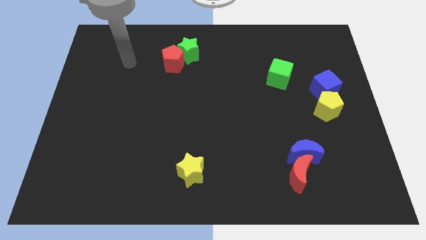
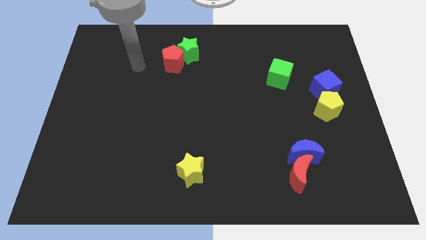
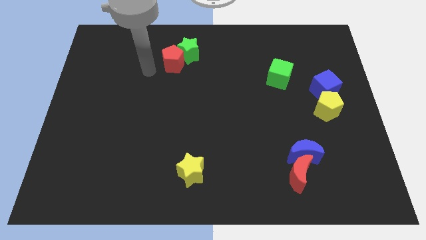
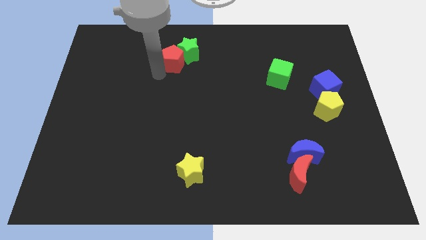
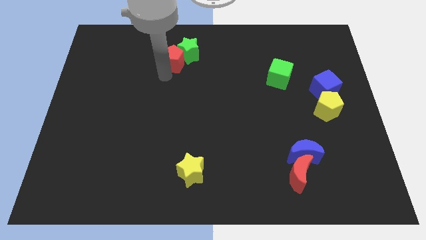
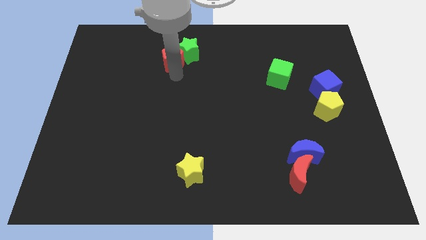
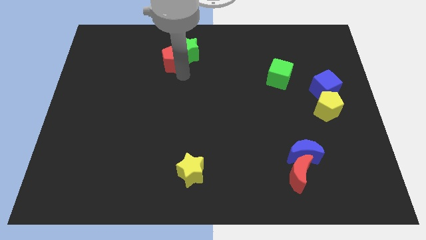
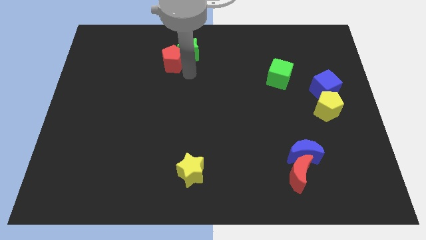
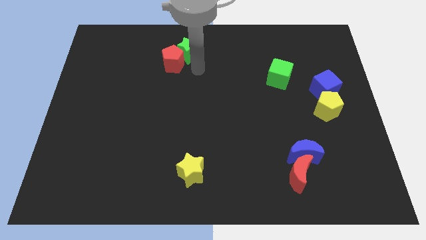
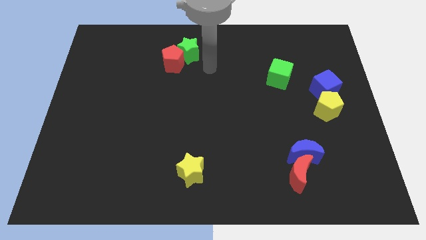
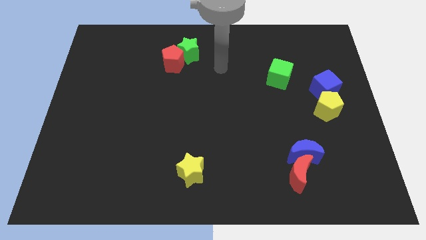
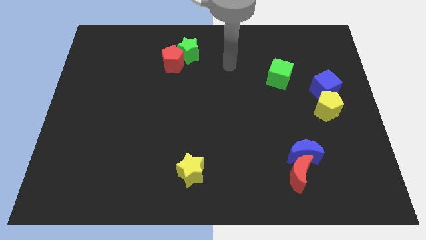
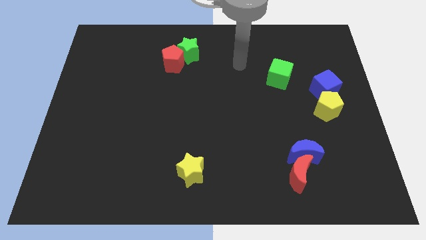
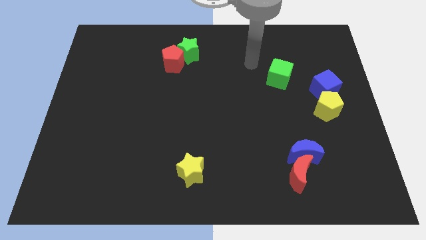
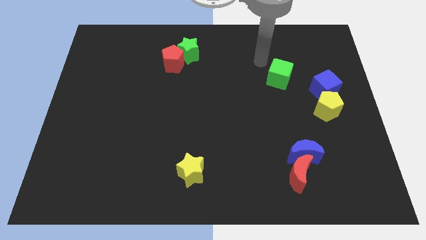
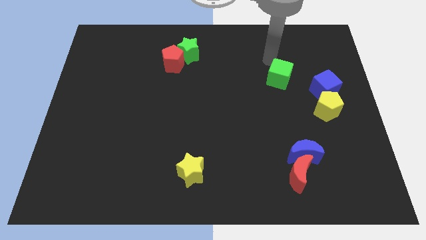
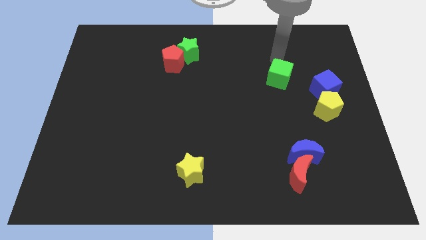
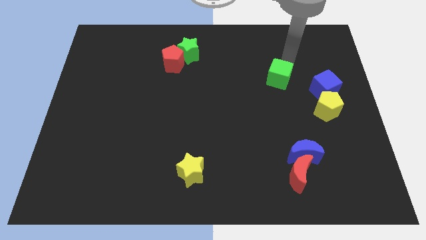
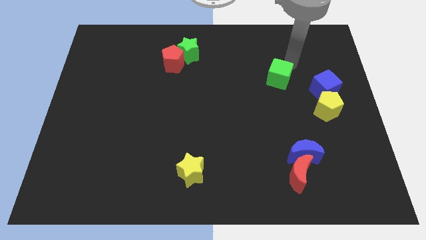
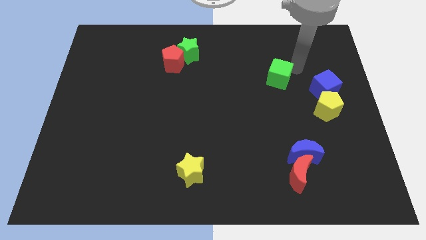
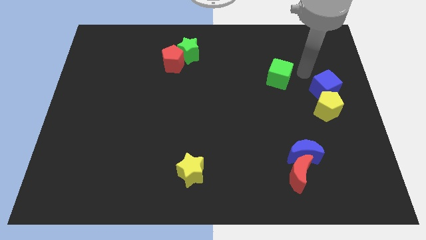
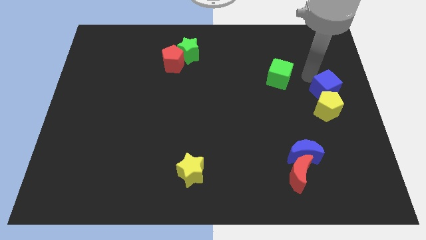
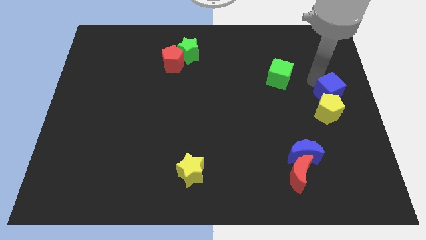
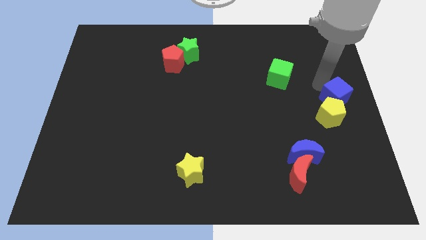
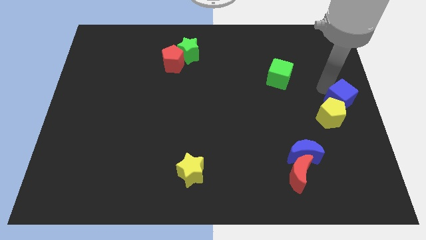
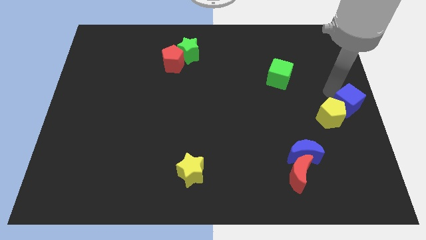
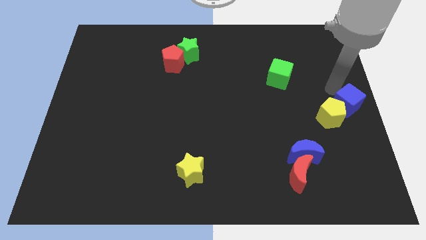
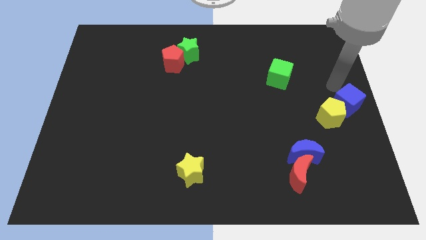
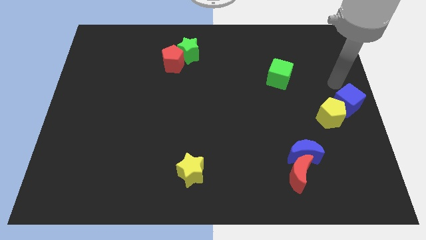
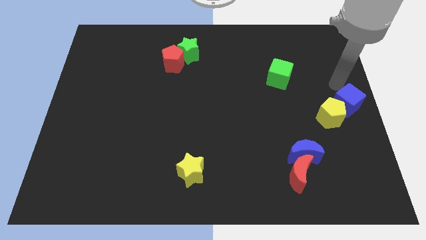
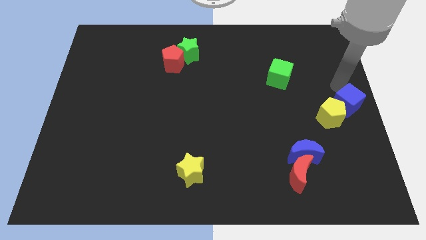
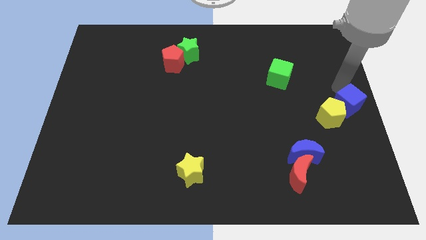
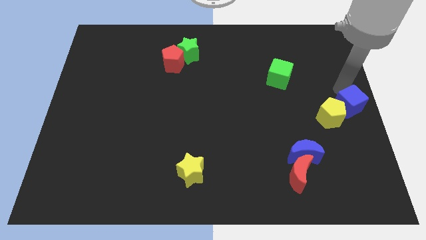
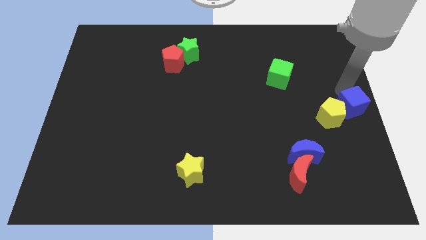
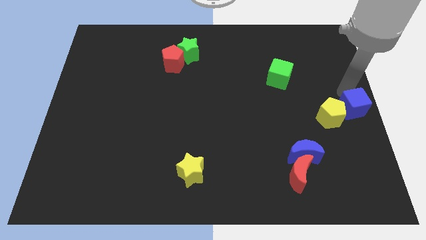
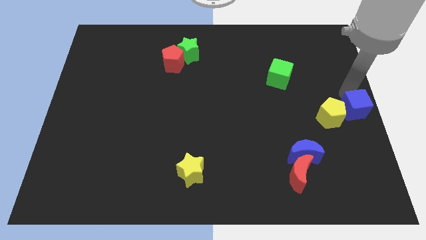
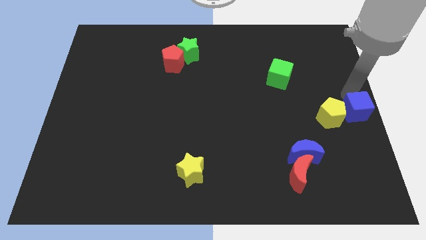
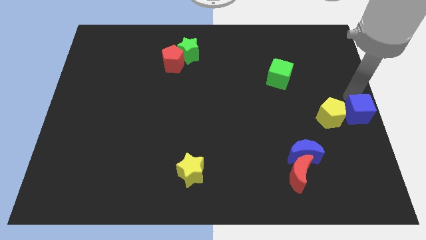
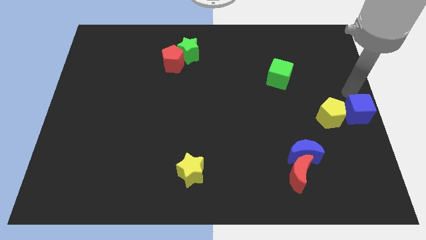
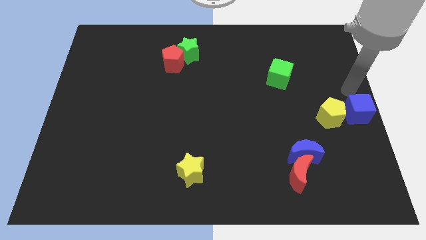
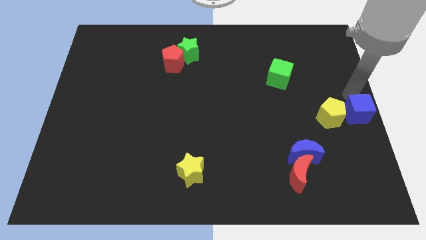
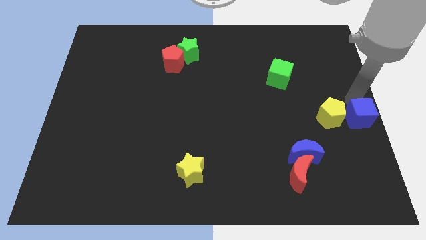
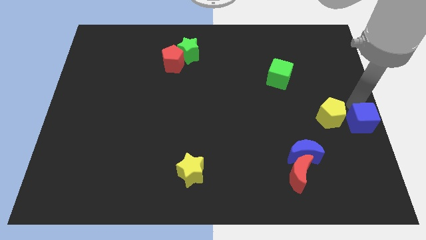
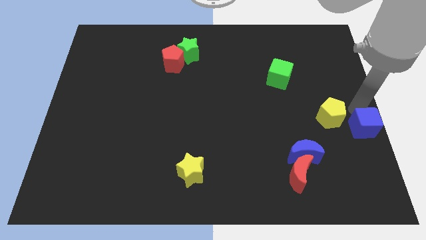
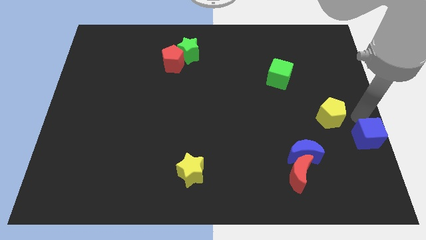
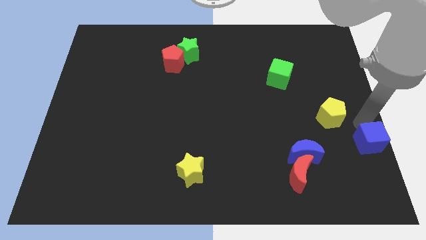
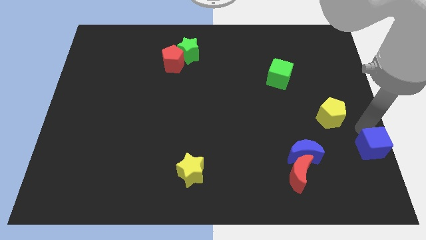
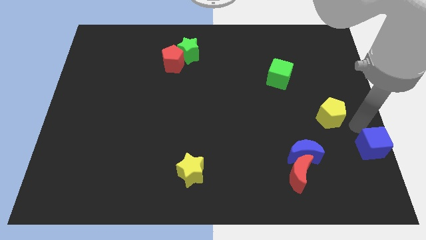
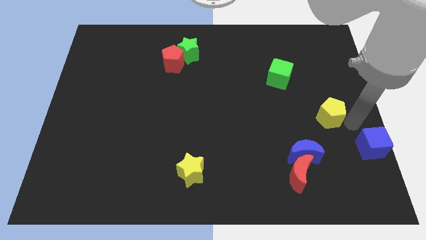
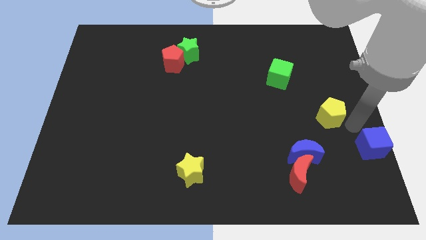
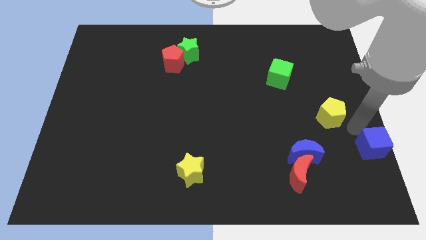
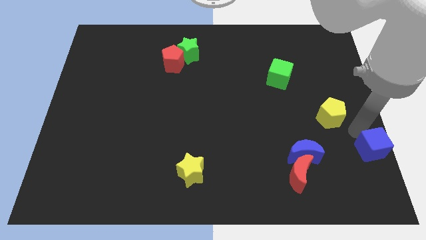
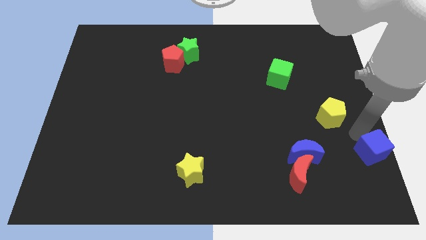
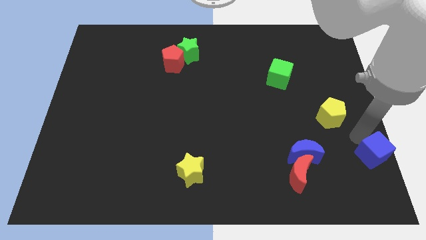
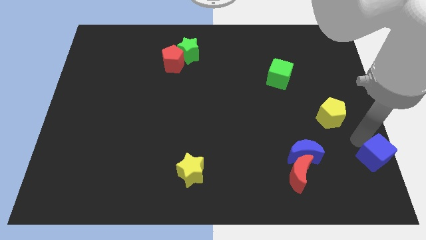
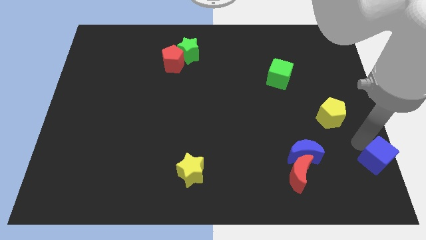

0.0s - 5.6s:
put the blue cube to the bottom right

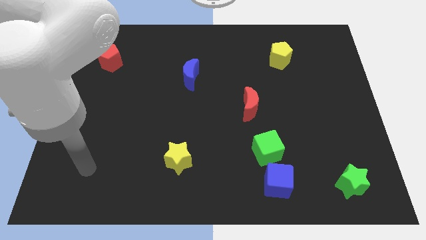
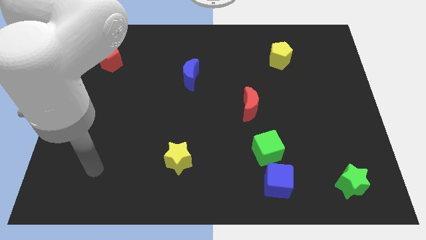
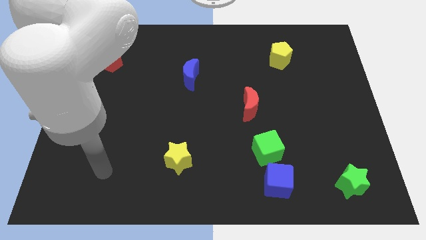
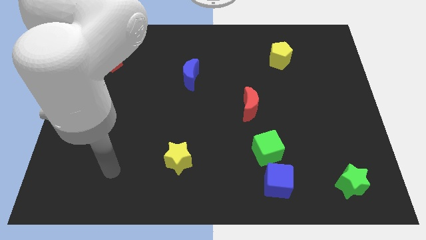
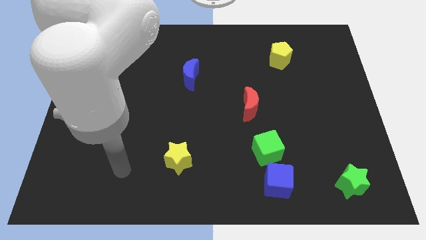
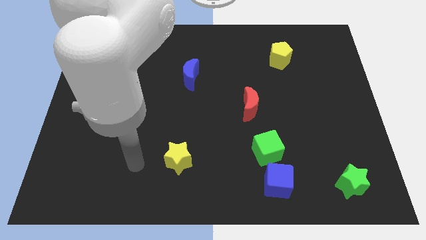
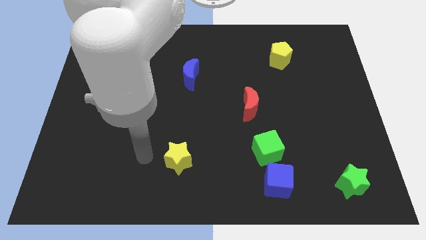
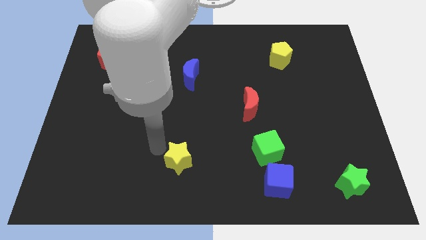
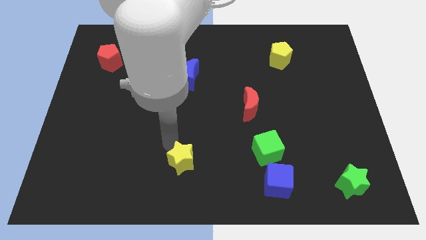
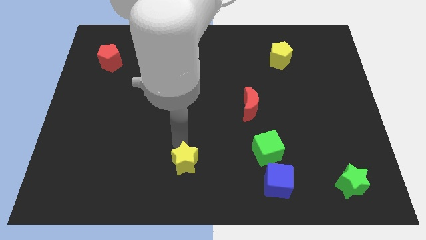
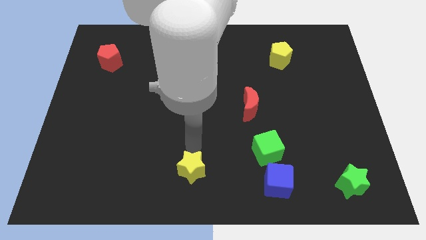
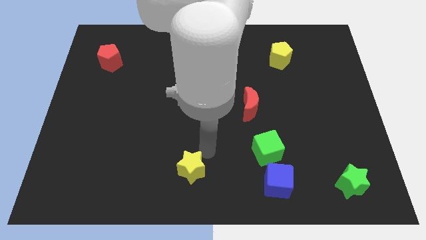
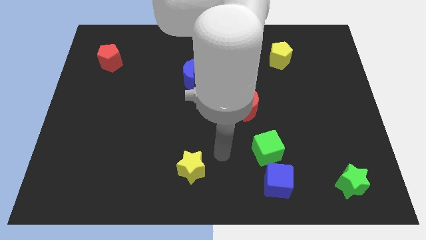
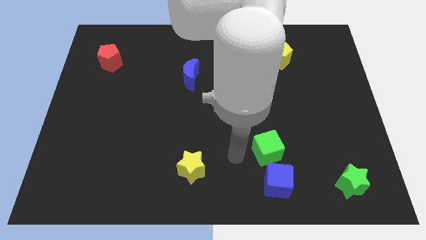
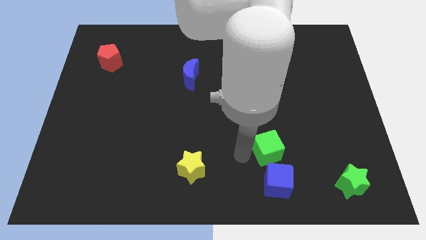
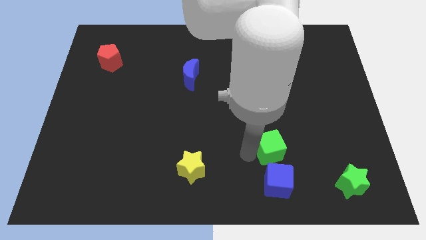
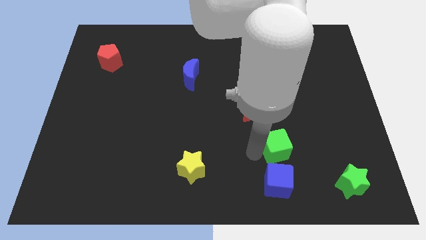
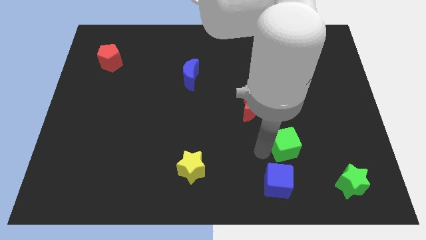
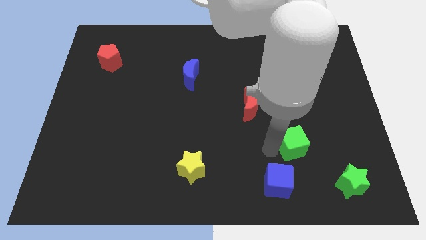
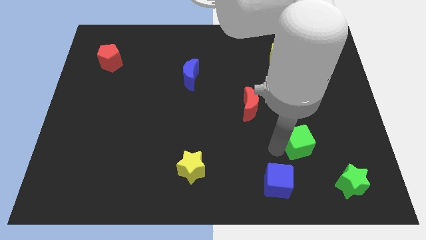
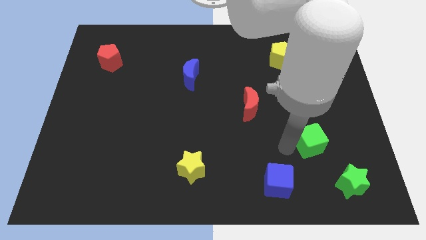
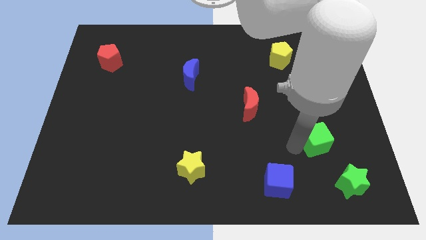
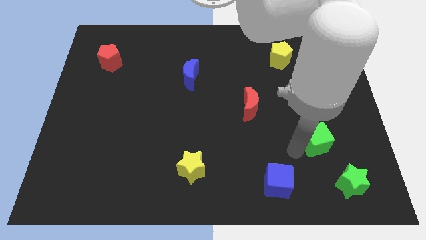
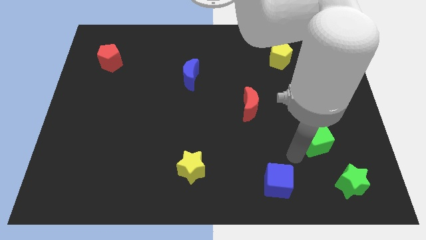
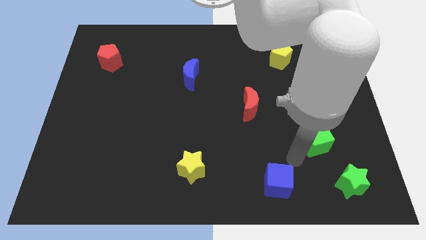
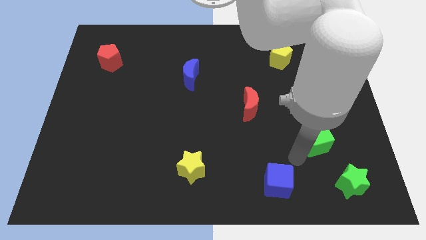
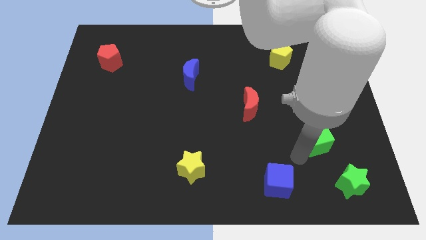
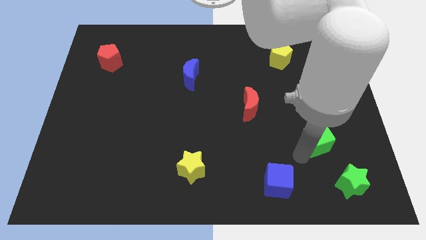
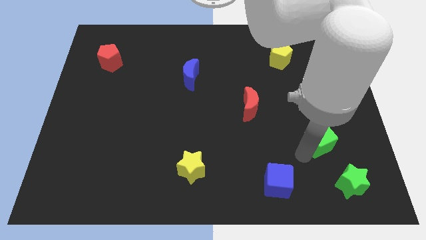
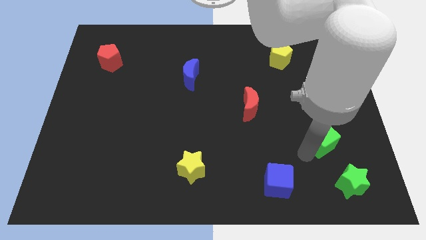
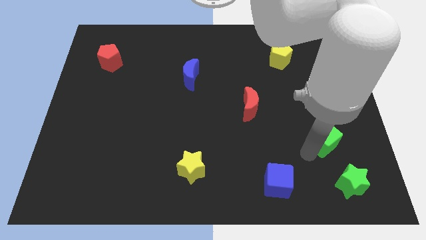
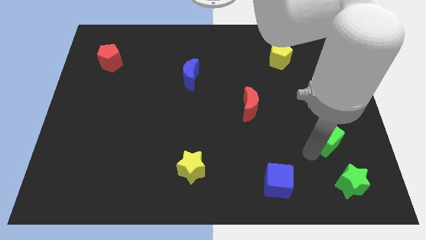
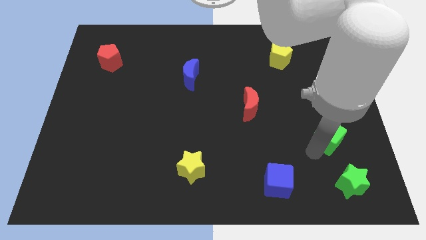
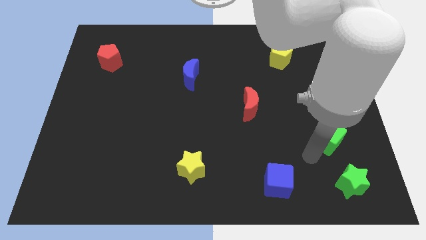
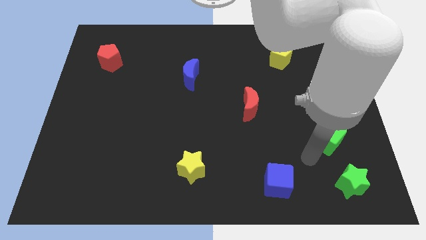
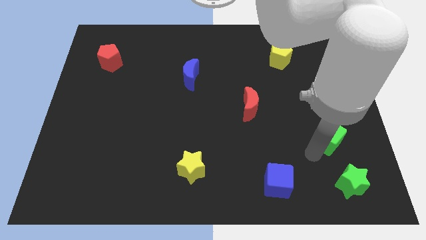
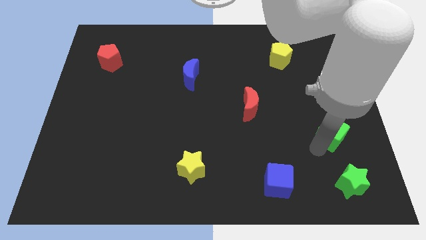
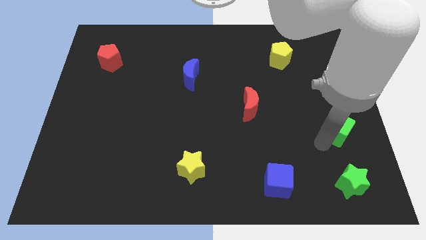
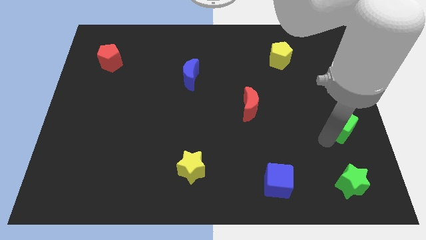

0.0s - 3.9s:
slide the green cube to the center right
